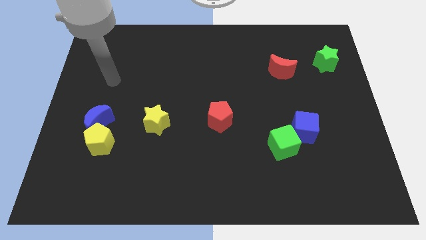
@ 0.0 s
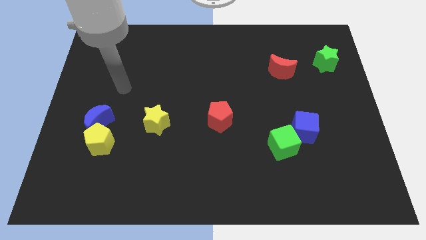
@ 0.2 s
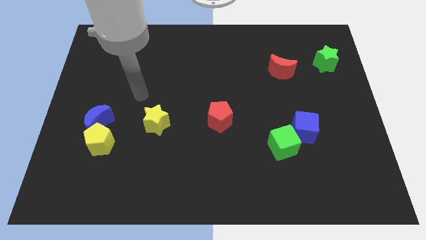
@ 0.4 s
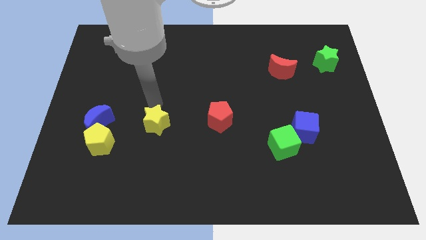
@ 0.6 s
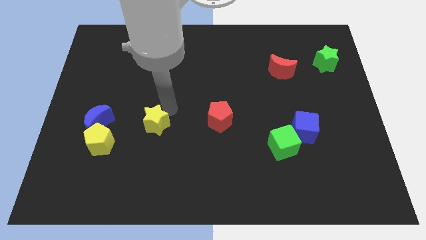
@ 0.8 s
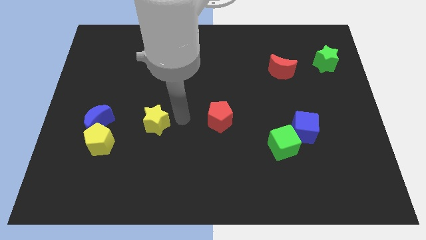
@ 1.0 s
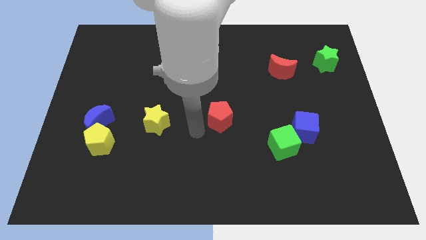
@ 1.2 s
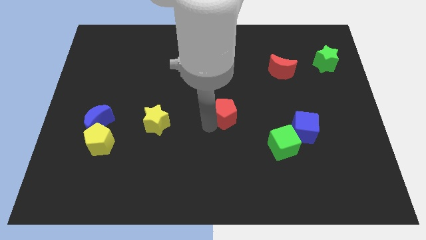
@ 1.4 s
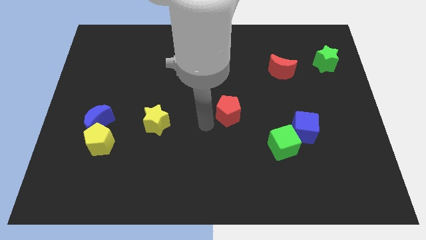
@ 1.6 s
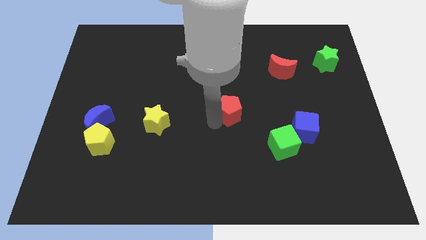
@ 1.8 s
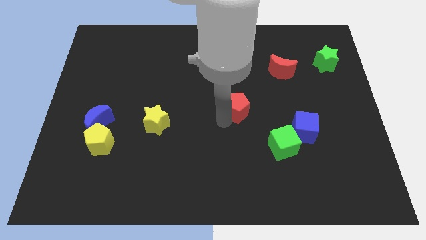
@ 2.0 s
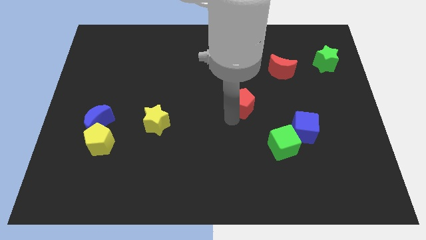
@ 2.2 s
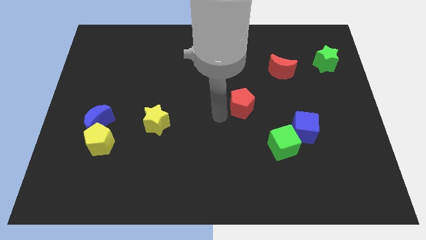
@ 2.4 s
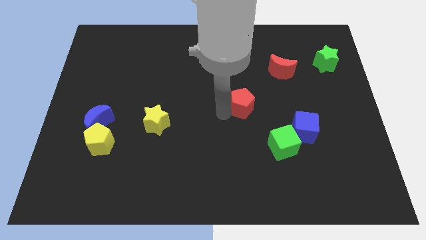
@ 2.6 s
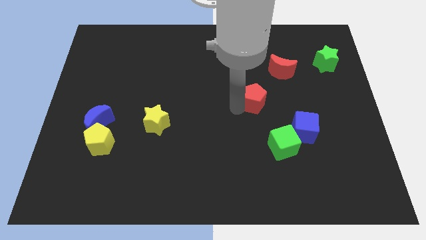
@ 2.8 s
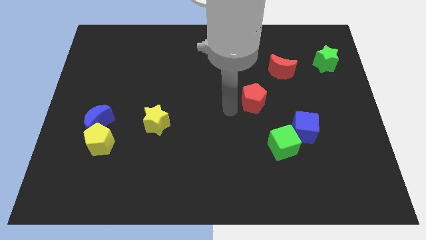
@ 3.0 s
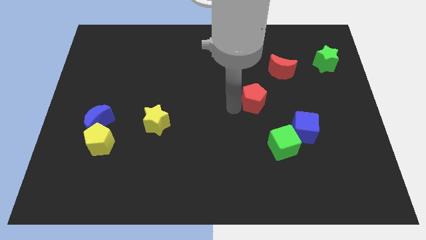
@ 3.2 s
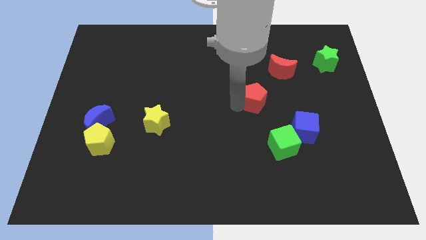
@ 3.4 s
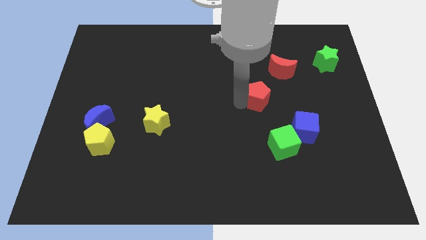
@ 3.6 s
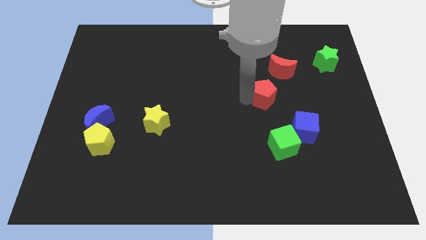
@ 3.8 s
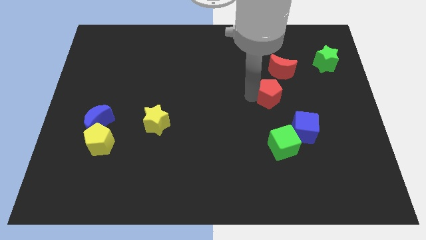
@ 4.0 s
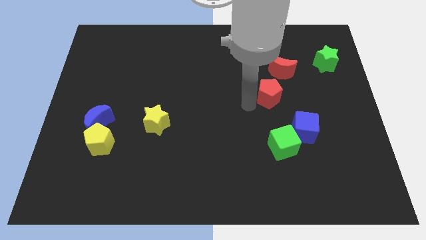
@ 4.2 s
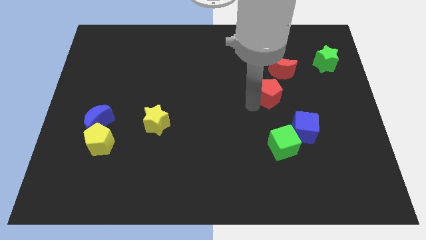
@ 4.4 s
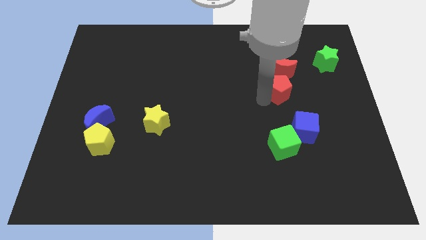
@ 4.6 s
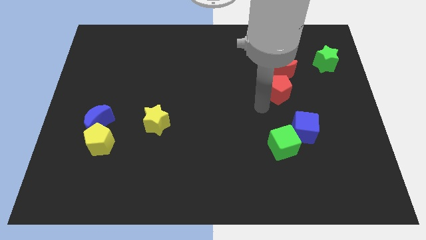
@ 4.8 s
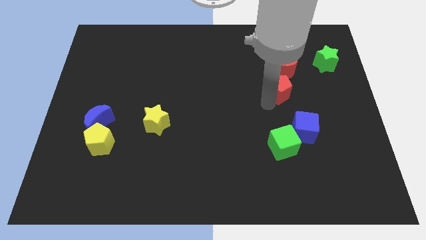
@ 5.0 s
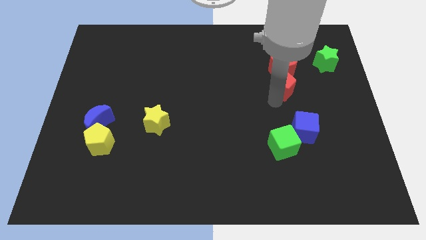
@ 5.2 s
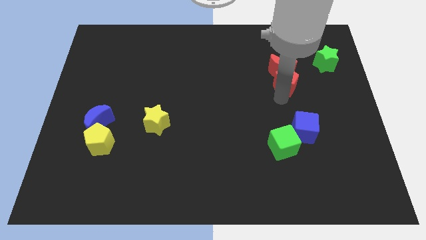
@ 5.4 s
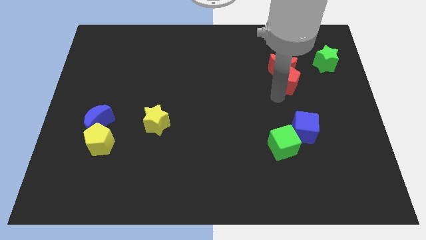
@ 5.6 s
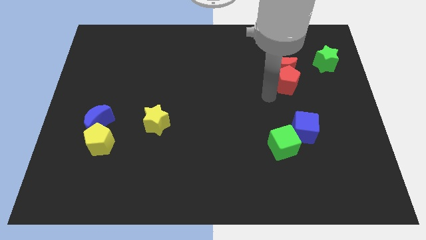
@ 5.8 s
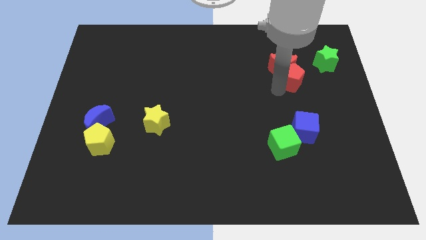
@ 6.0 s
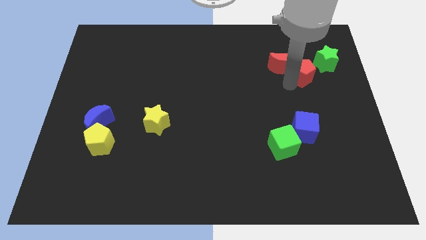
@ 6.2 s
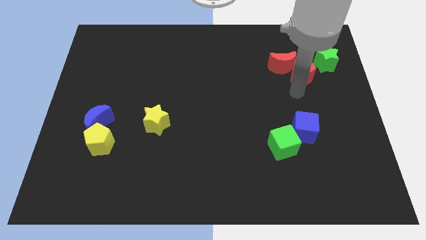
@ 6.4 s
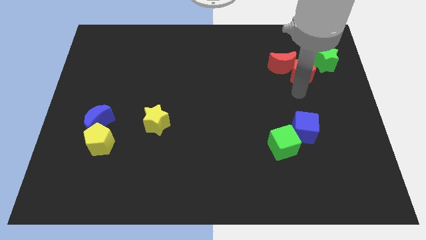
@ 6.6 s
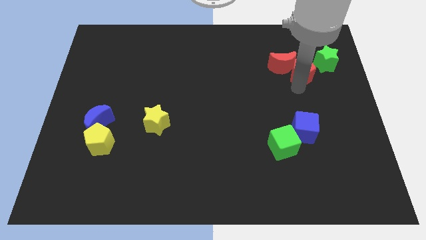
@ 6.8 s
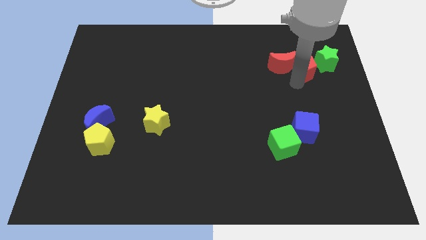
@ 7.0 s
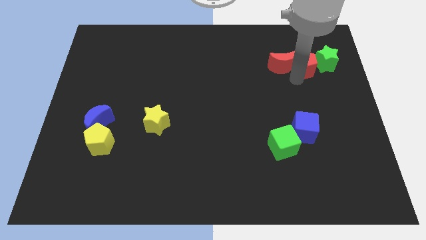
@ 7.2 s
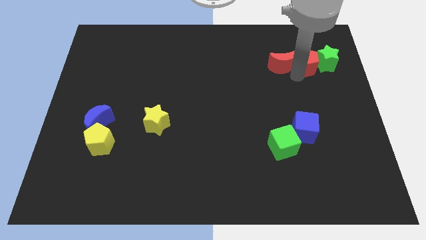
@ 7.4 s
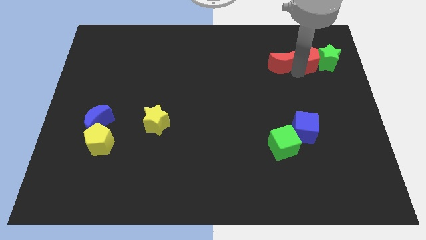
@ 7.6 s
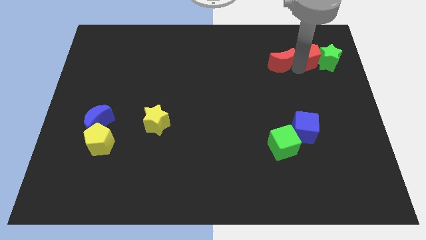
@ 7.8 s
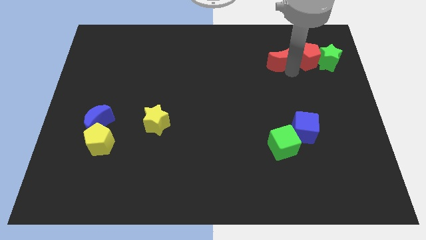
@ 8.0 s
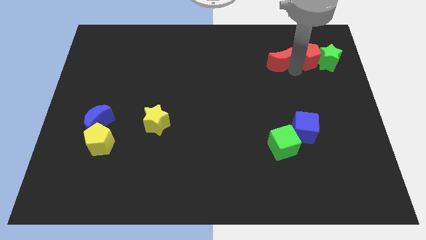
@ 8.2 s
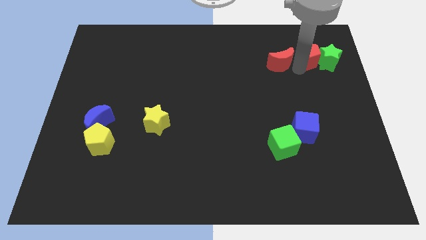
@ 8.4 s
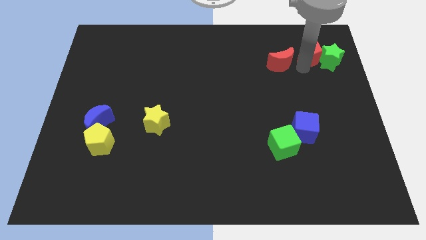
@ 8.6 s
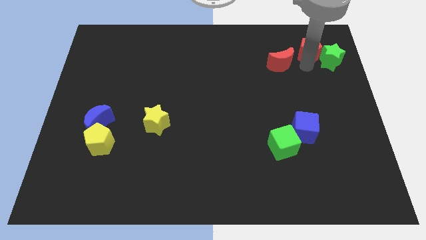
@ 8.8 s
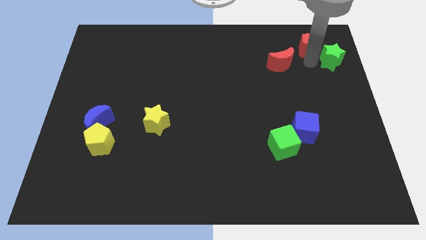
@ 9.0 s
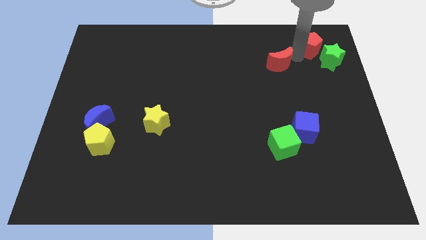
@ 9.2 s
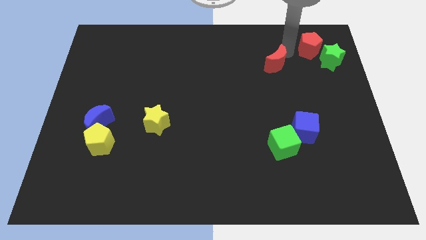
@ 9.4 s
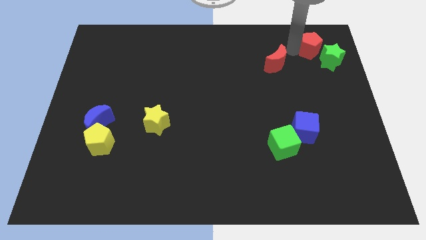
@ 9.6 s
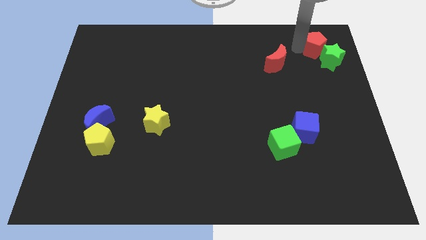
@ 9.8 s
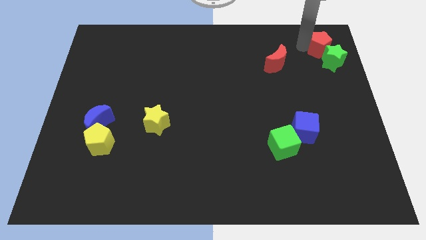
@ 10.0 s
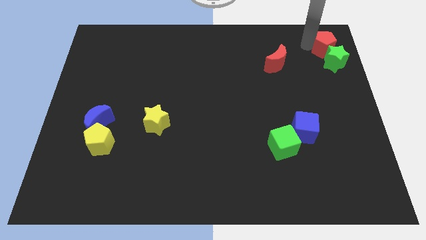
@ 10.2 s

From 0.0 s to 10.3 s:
put the red pentagon to the top right of the board
